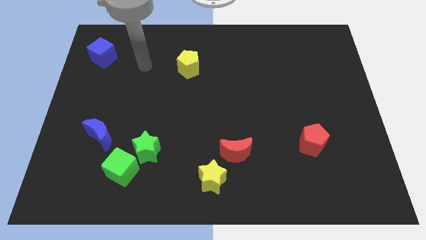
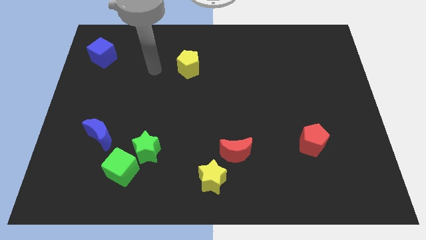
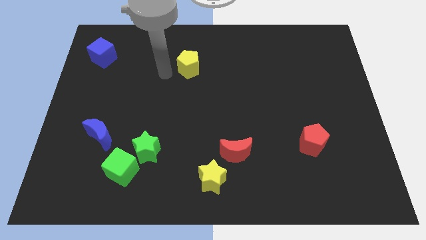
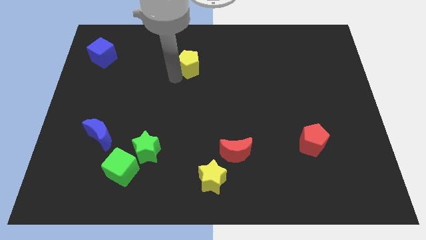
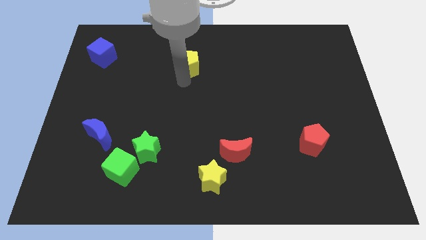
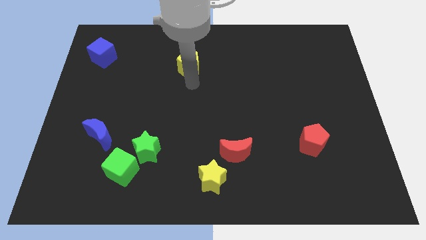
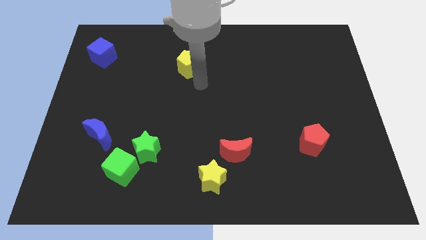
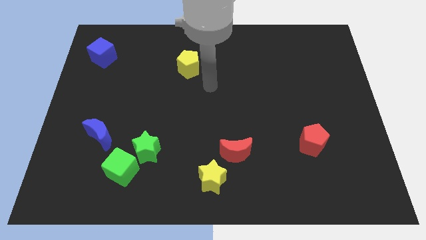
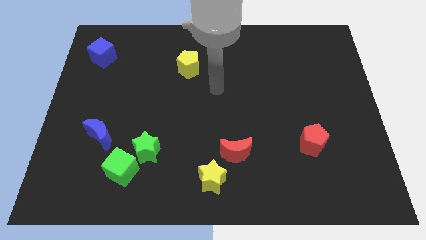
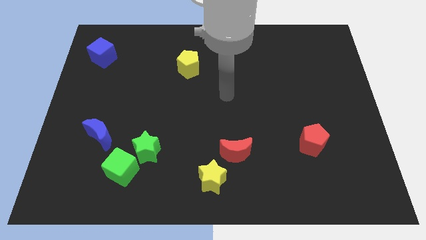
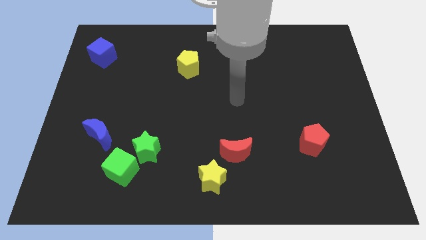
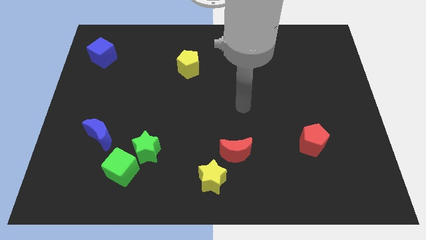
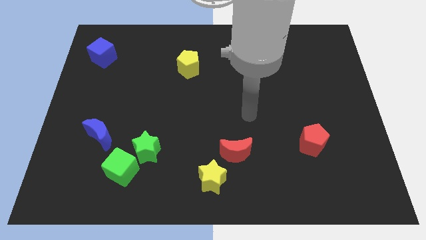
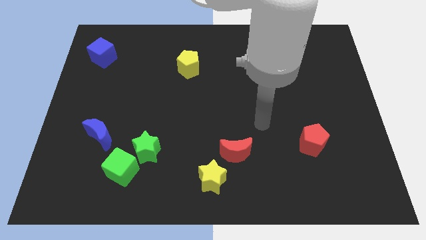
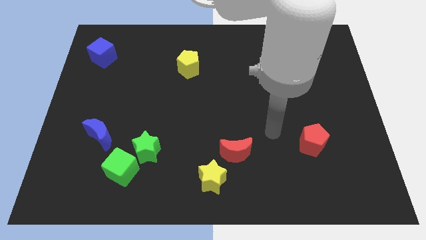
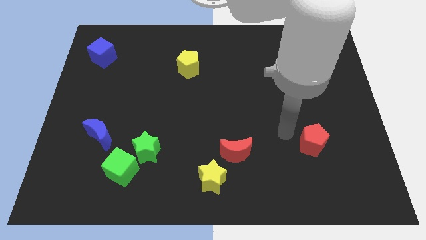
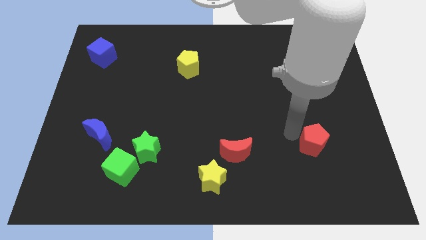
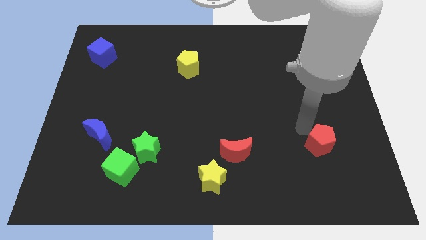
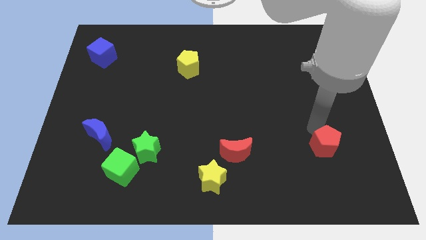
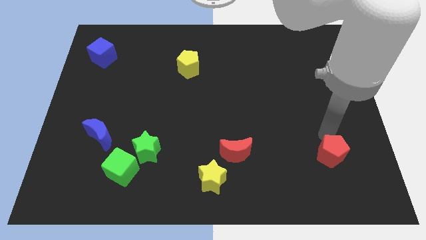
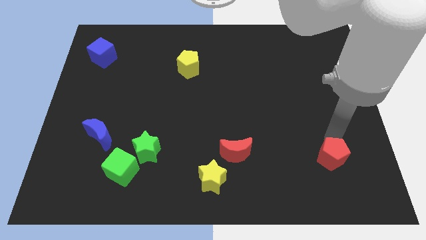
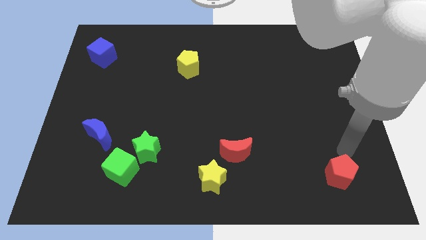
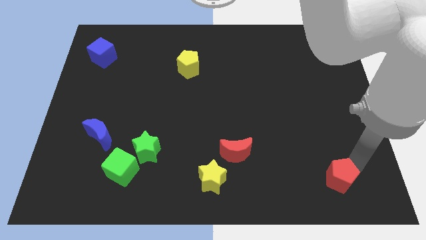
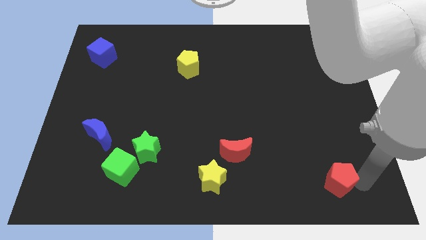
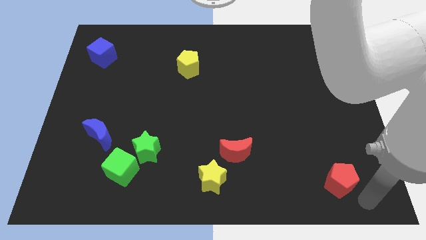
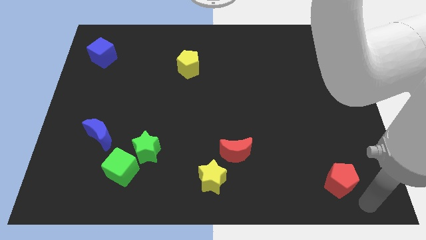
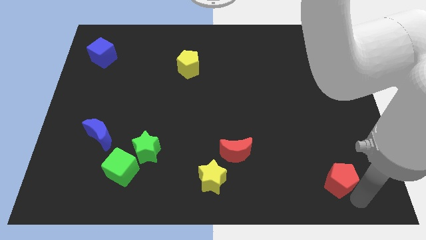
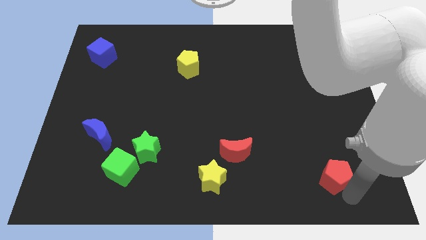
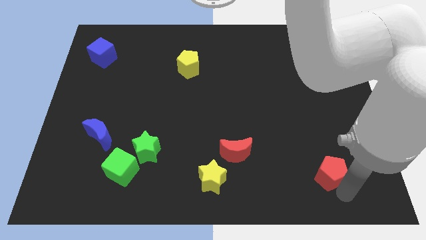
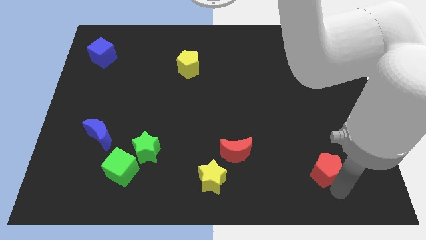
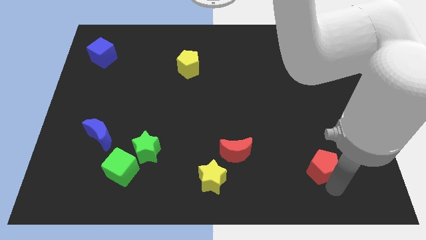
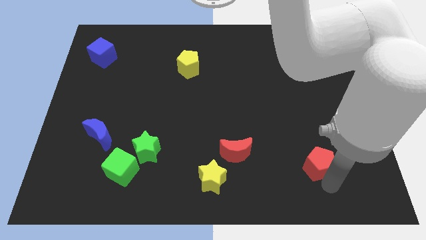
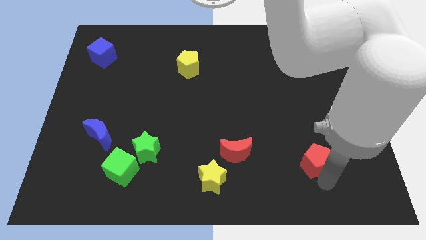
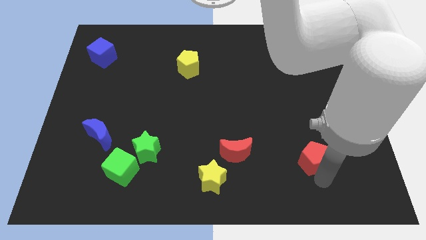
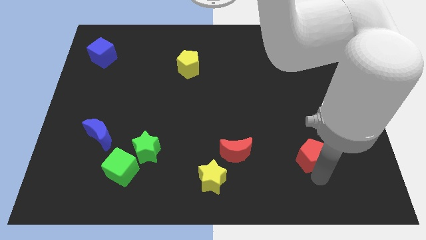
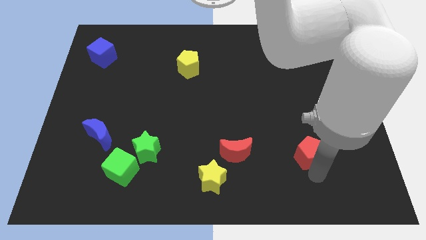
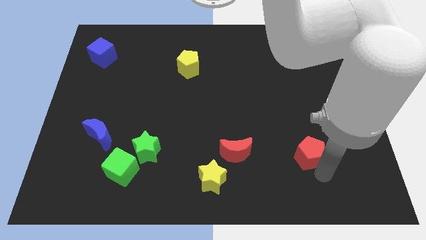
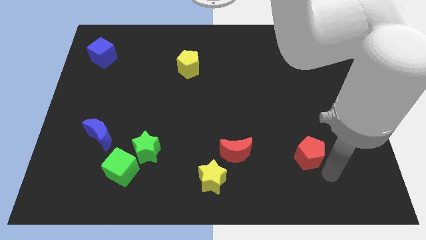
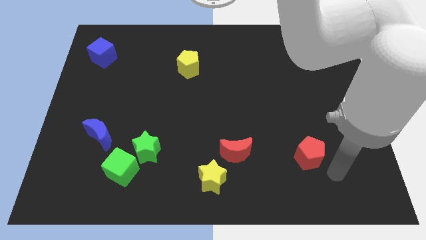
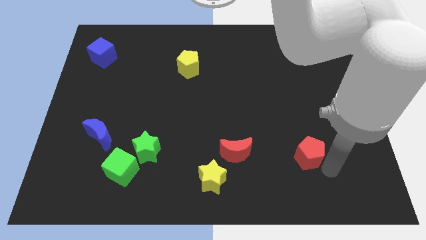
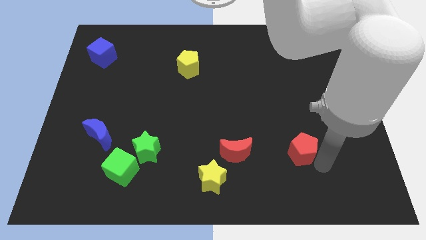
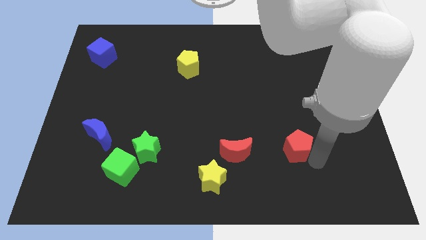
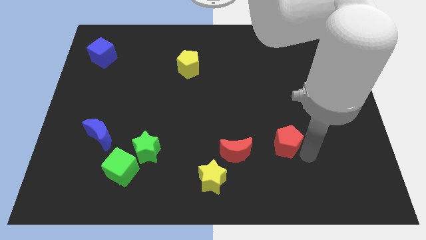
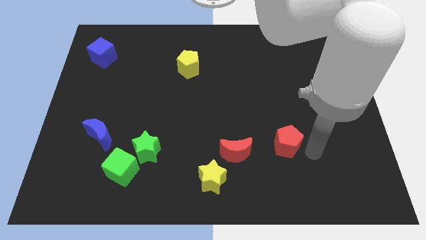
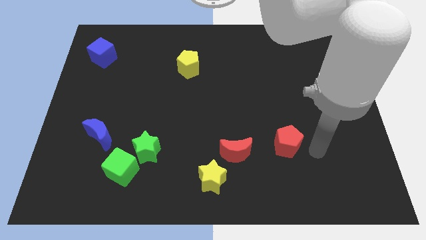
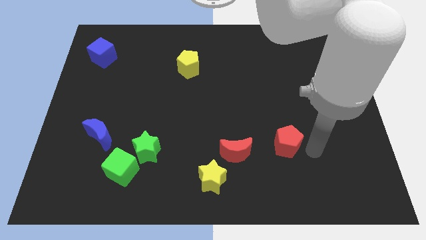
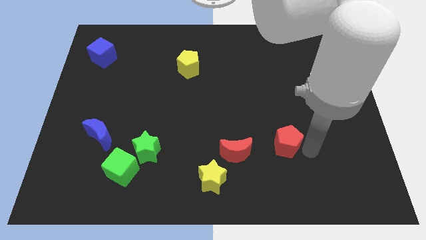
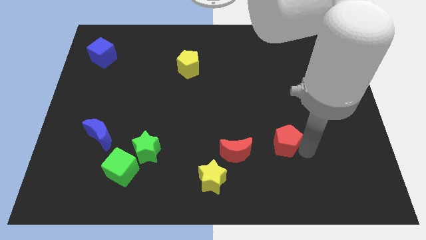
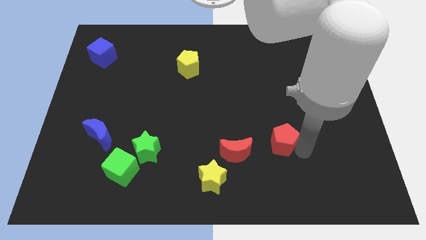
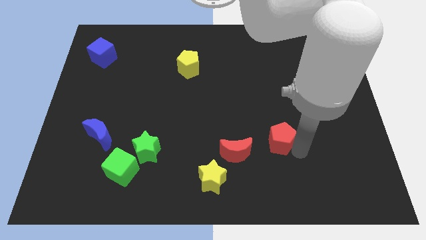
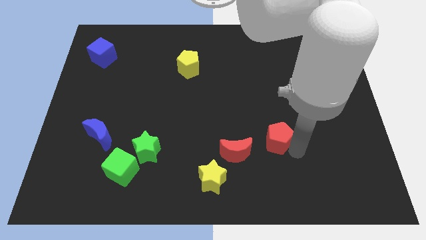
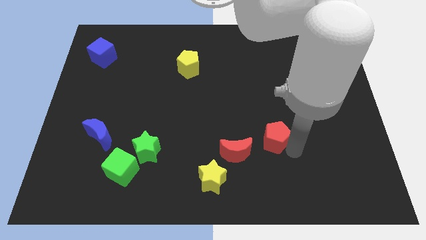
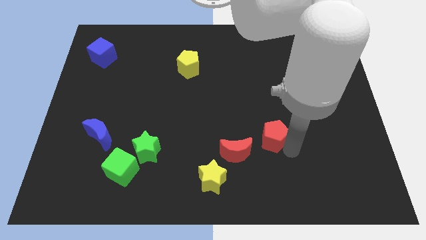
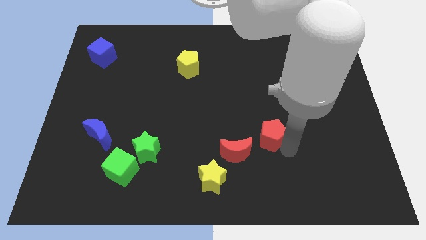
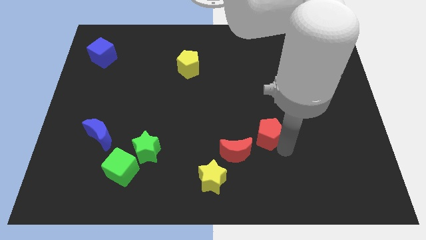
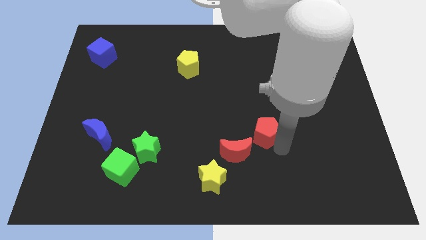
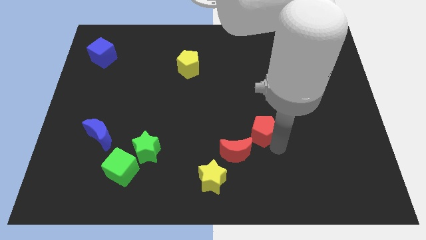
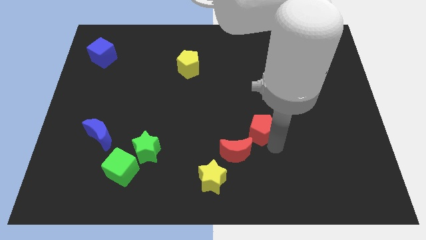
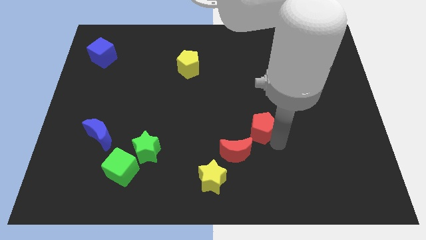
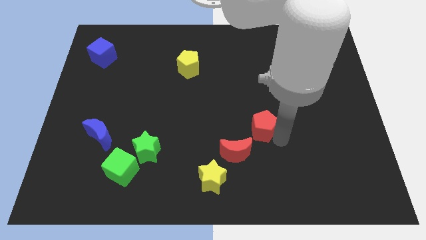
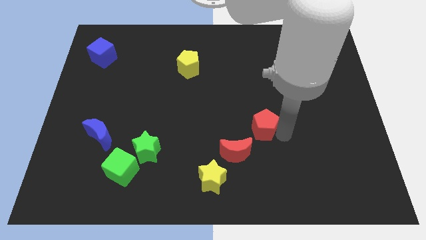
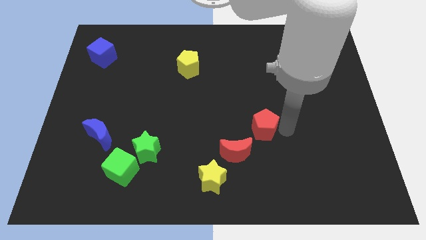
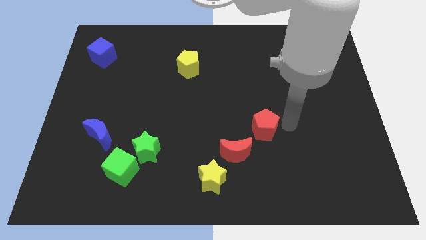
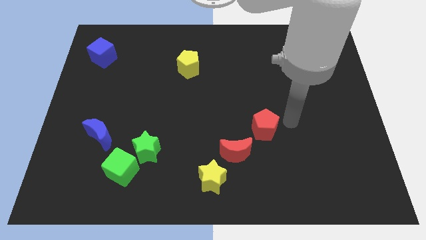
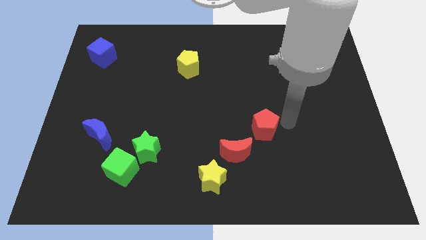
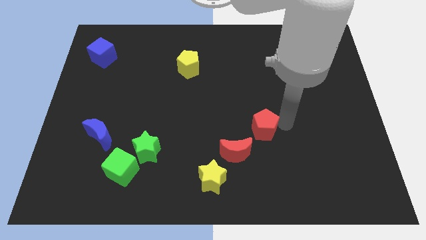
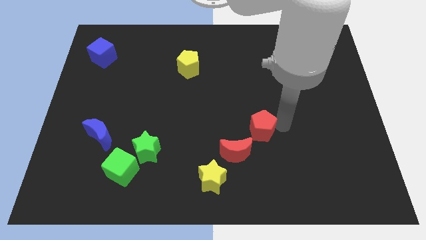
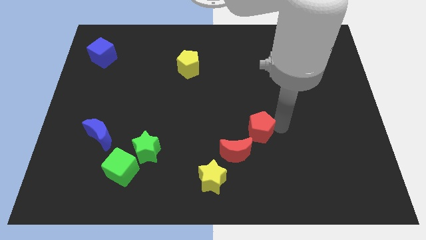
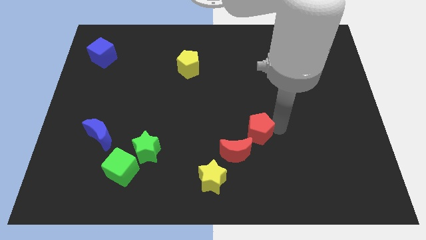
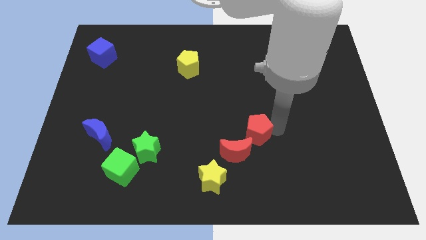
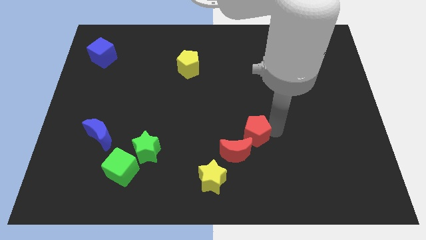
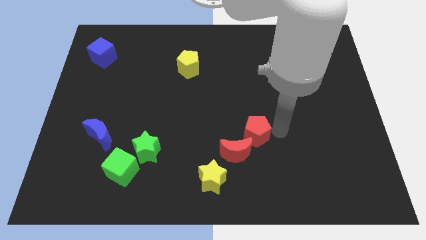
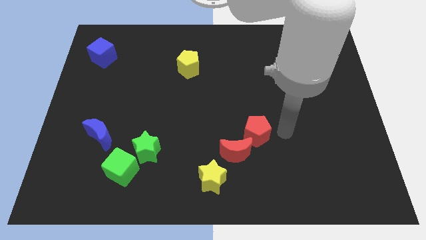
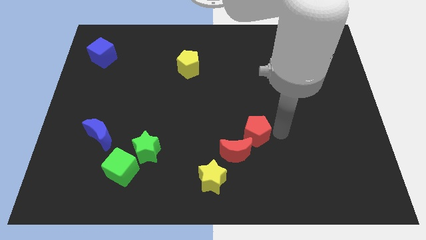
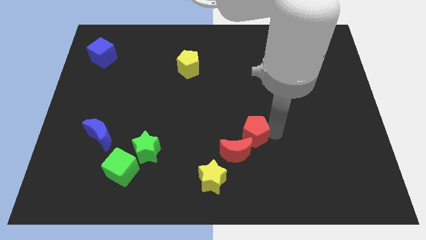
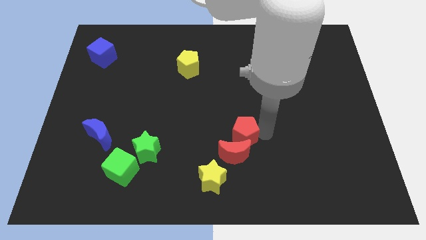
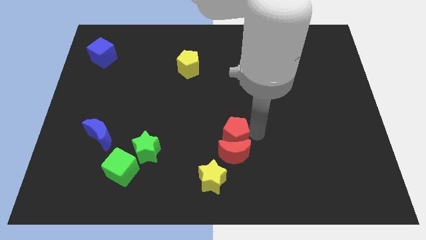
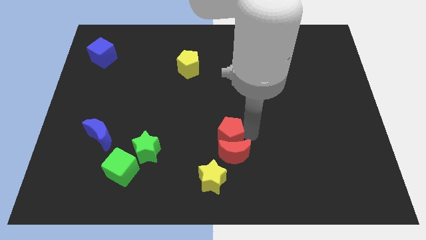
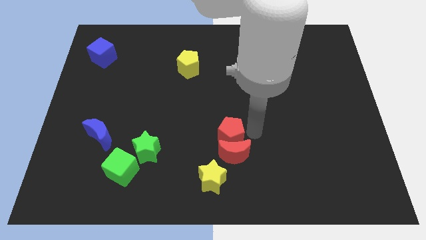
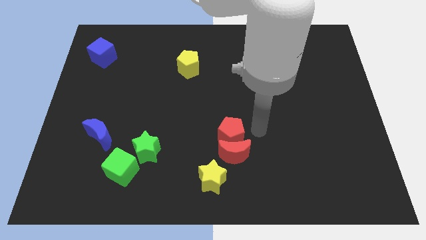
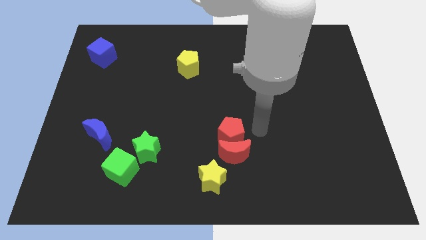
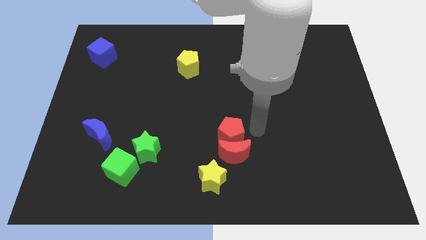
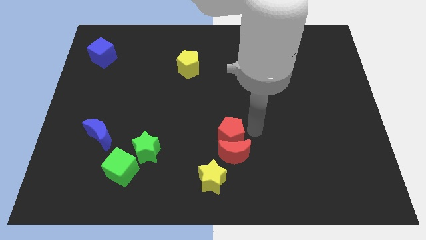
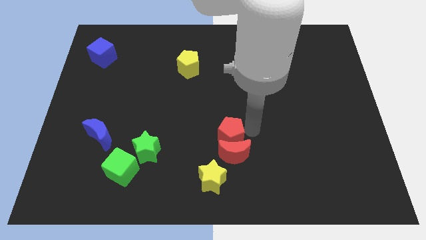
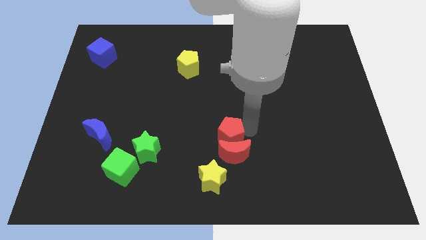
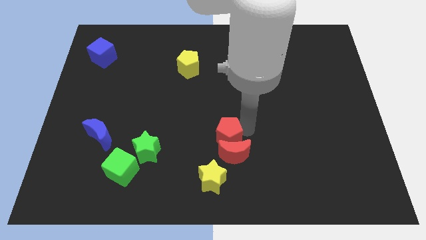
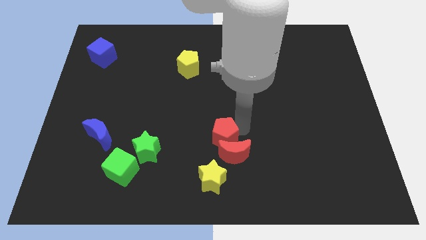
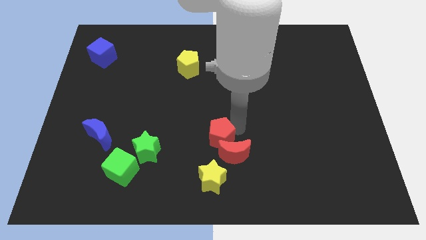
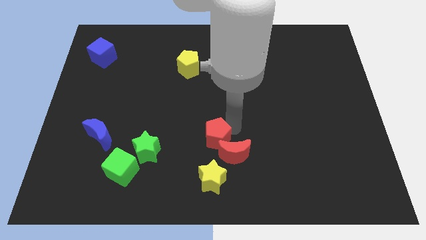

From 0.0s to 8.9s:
slide the red pentagon left of the red moon
